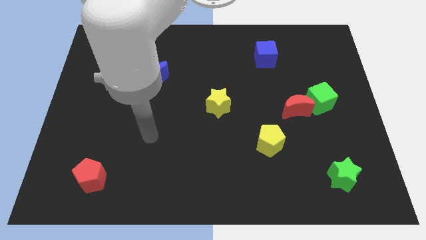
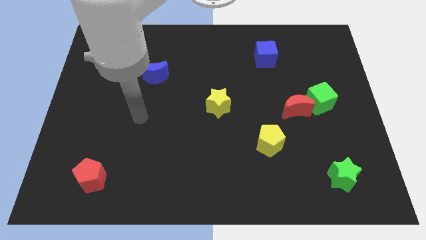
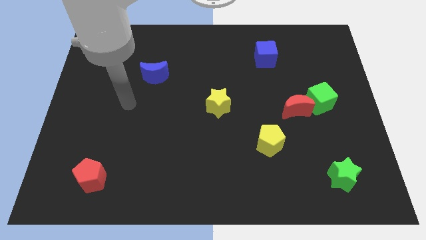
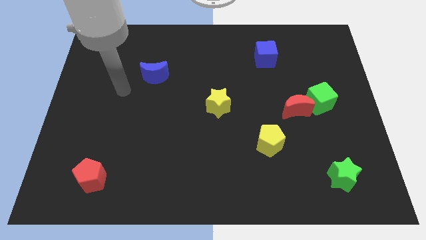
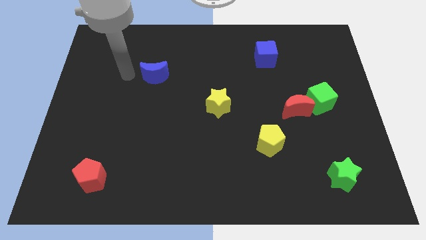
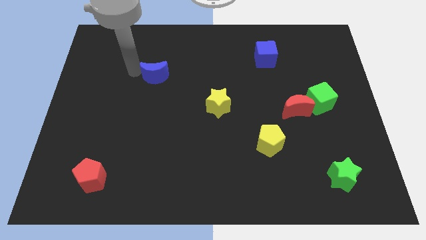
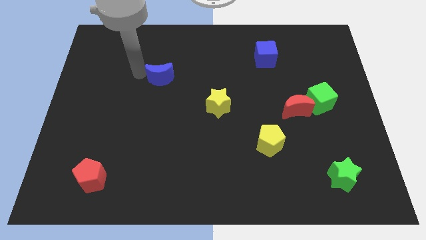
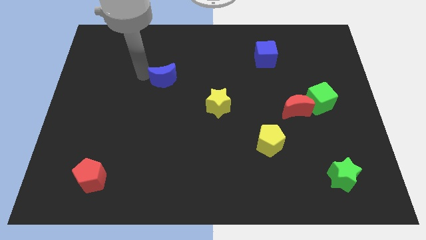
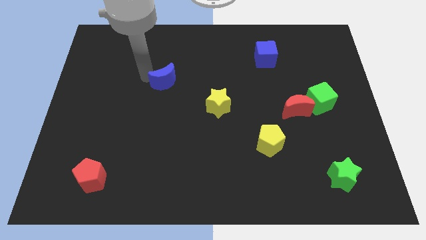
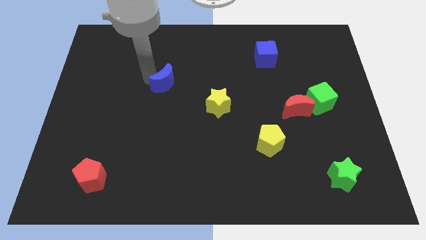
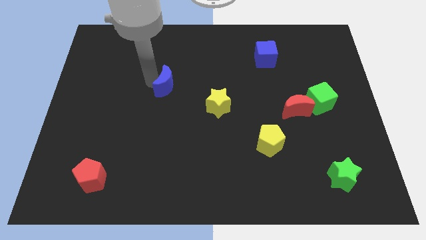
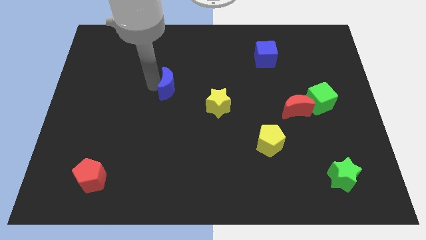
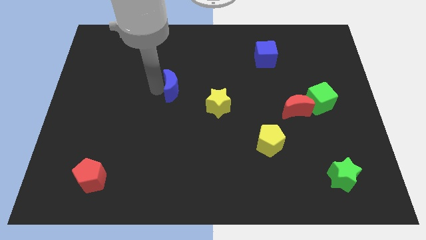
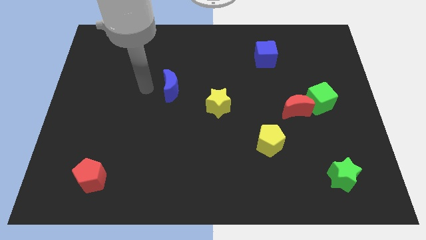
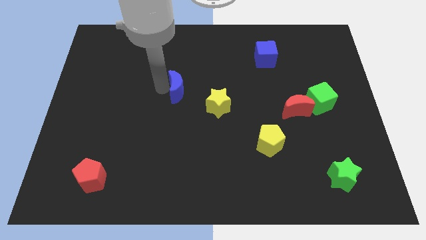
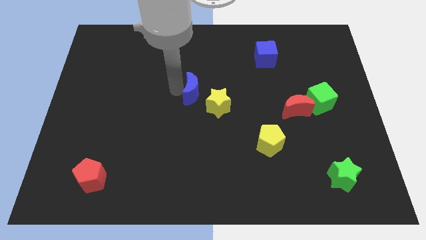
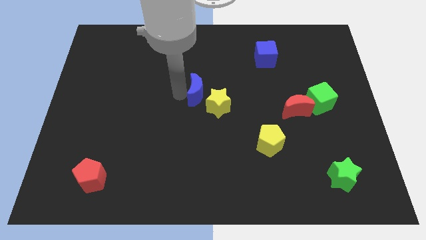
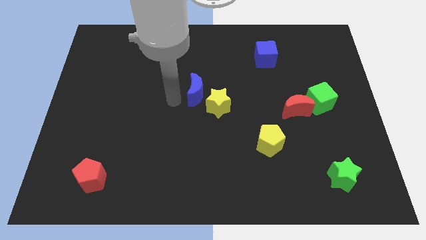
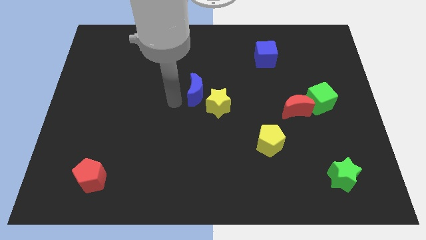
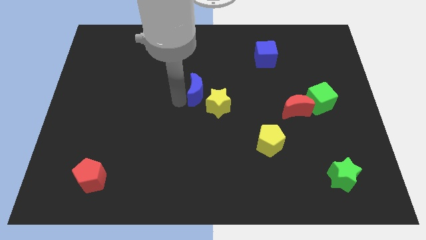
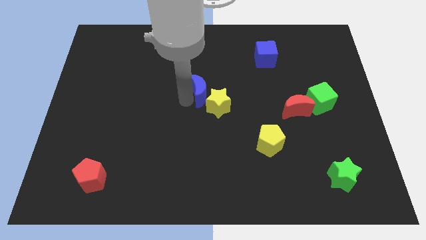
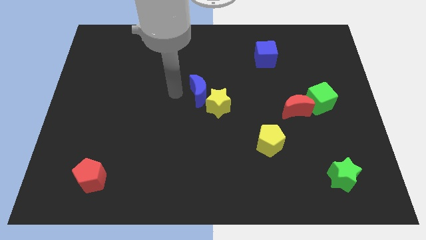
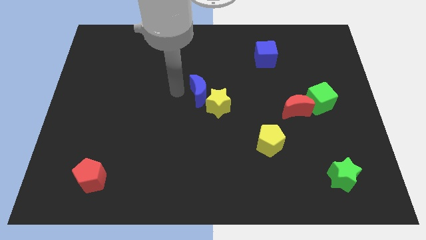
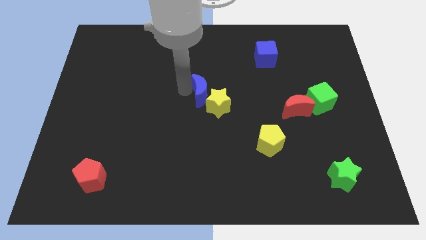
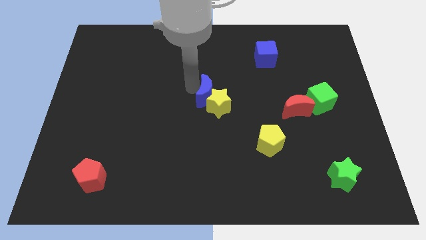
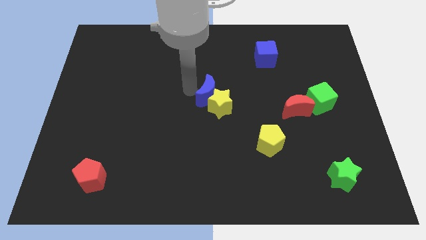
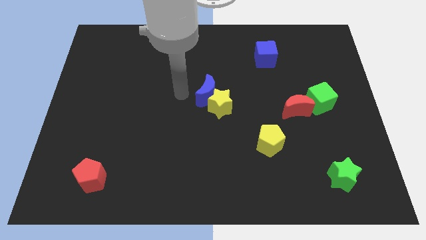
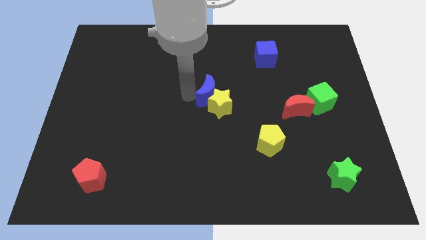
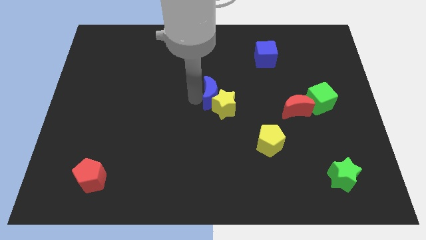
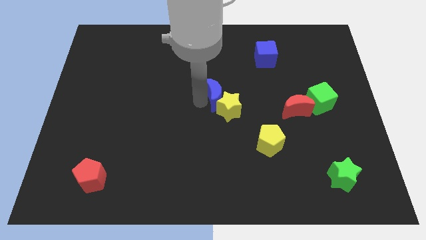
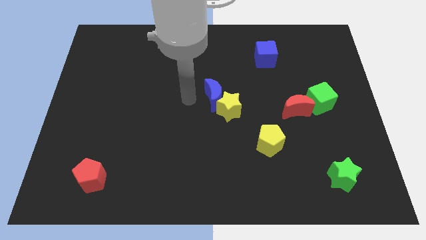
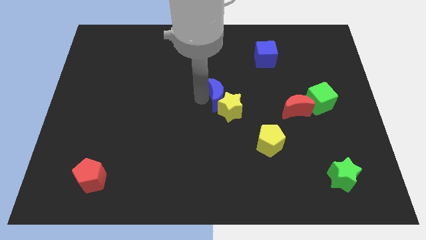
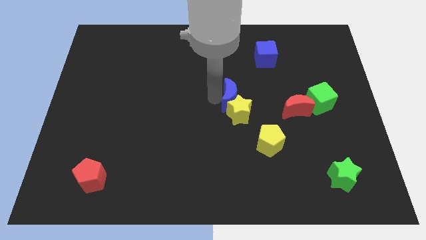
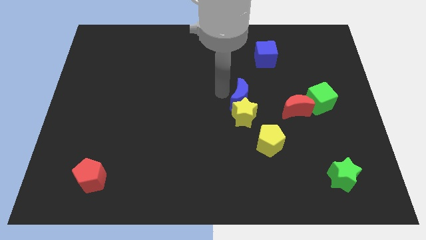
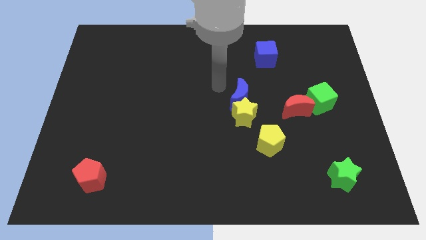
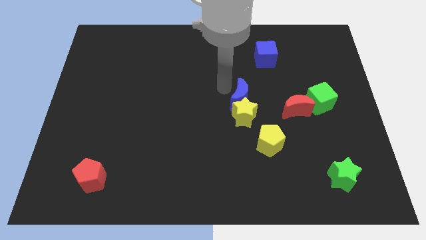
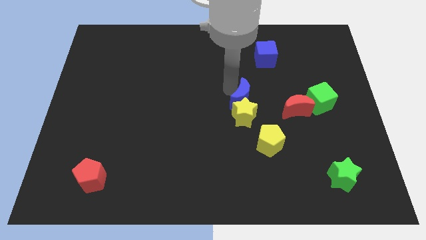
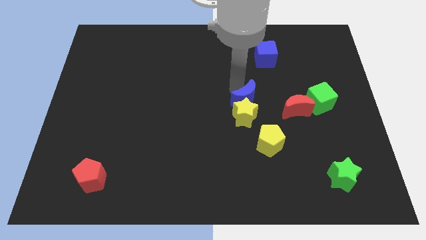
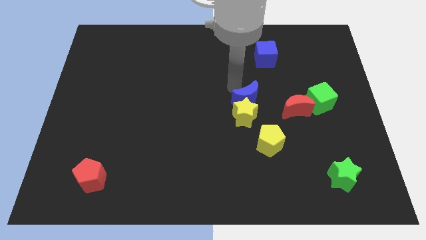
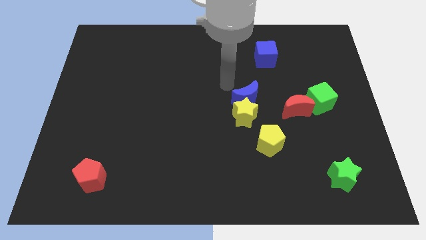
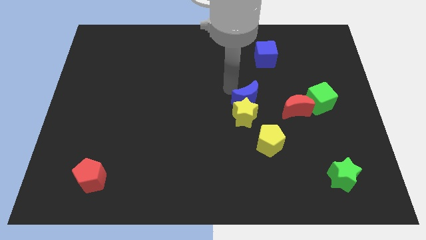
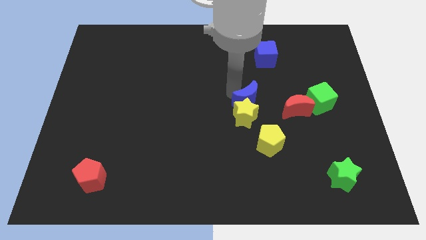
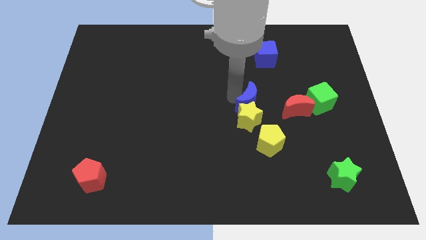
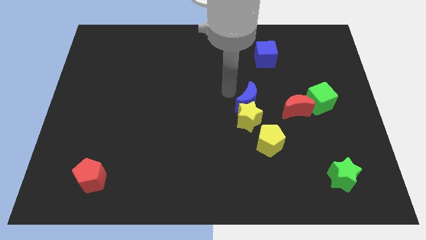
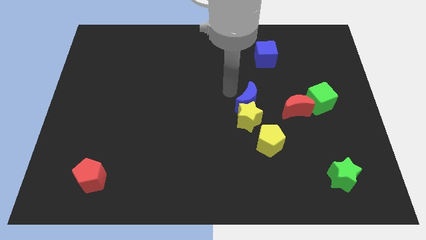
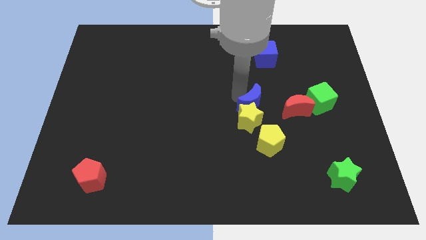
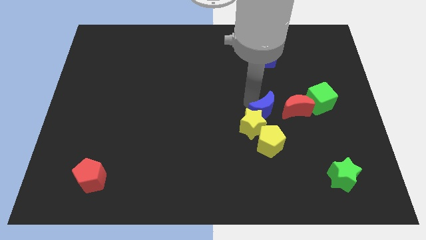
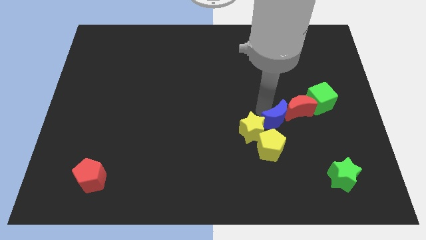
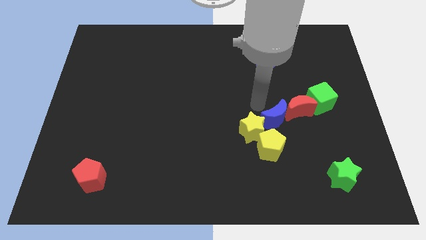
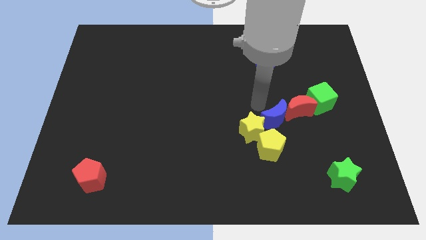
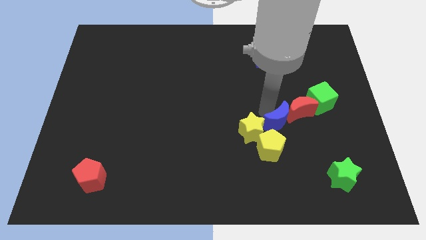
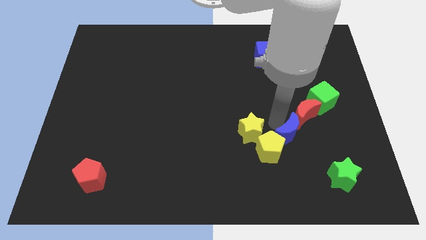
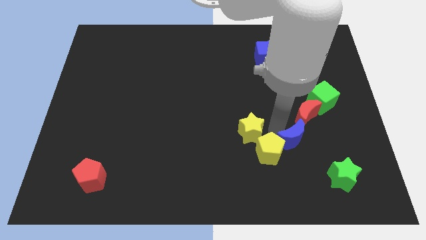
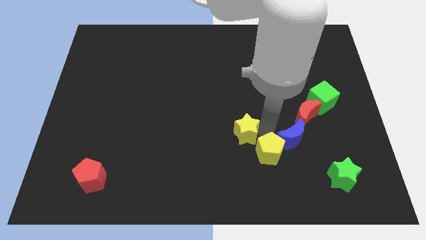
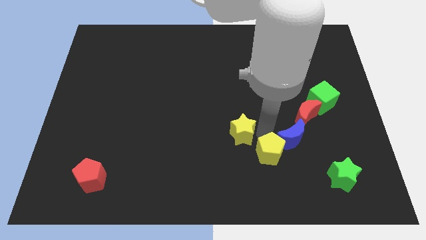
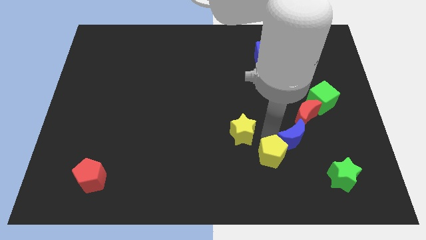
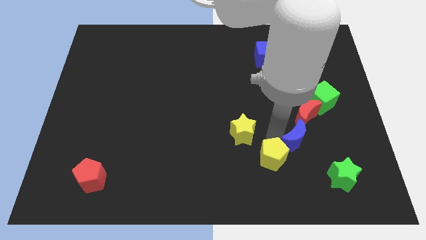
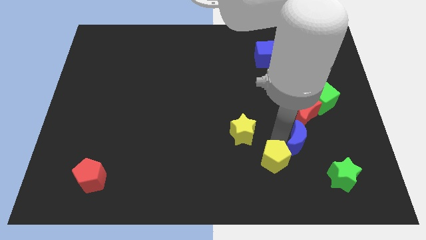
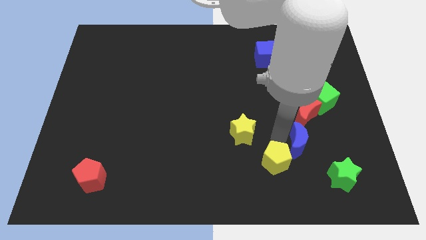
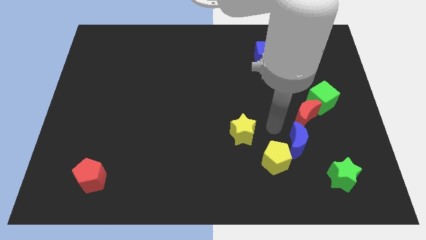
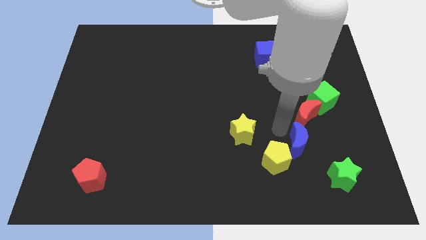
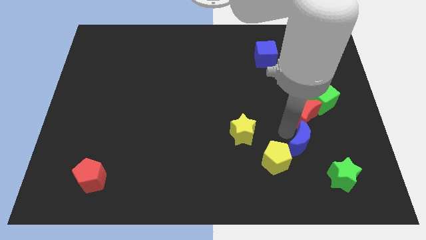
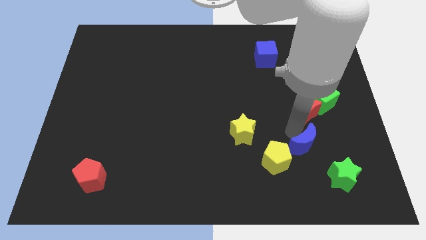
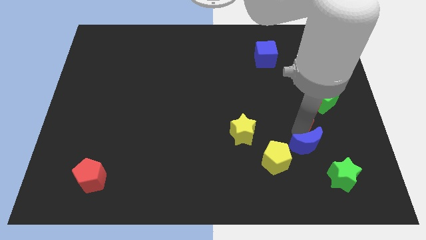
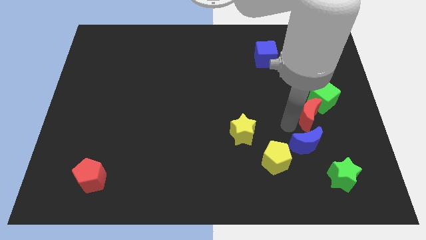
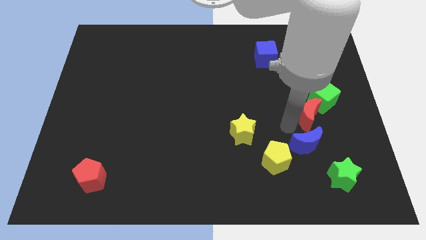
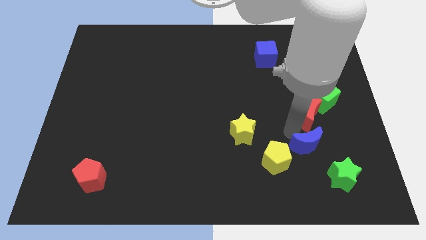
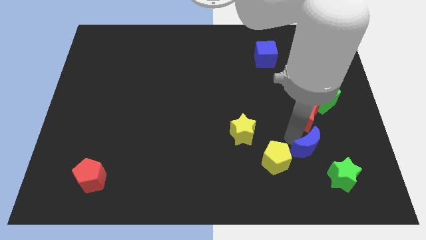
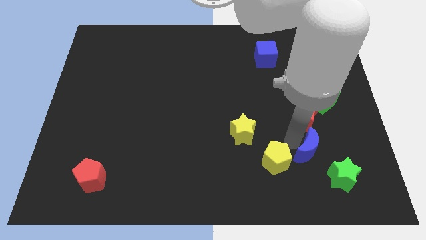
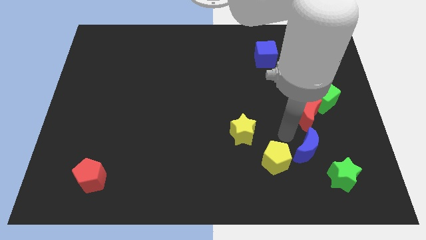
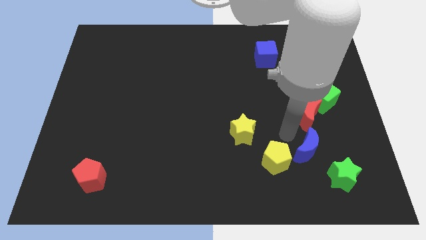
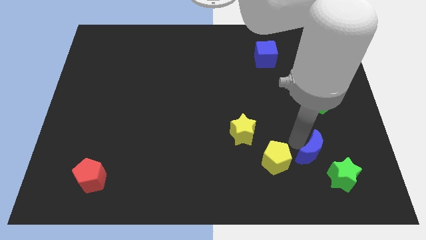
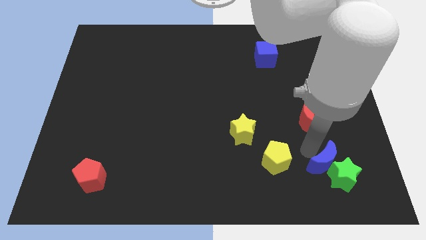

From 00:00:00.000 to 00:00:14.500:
slide the blue moon next to the green star

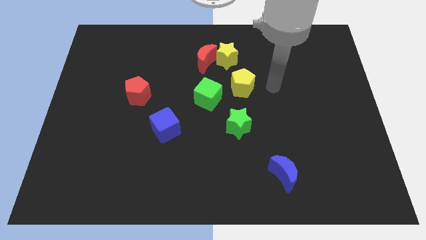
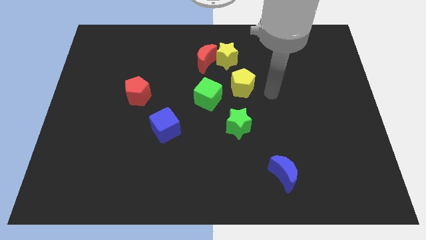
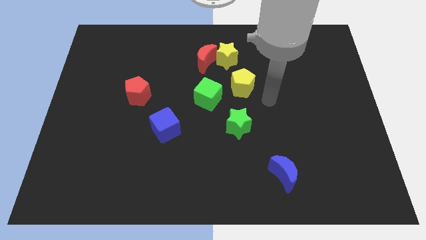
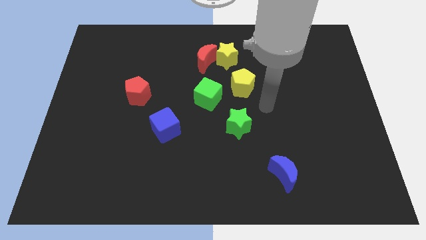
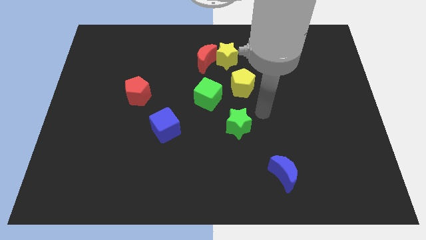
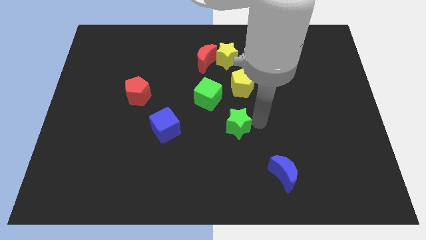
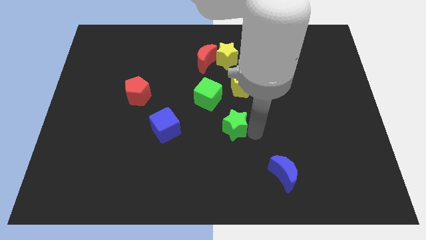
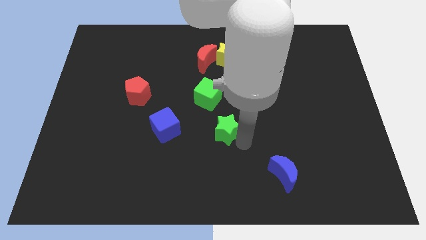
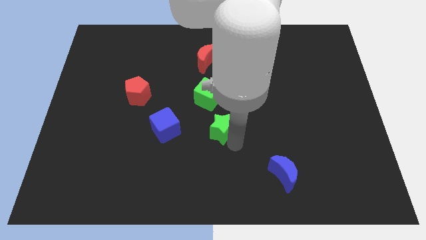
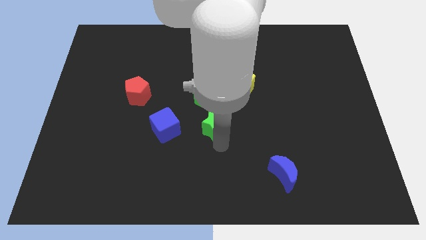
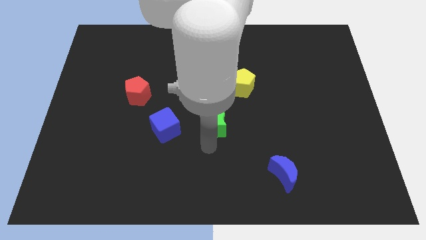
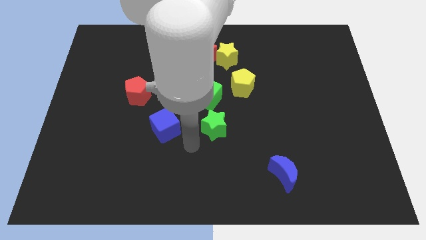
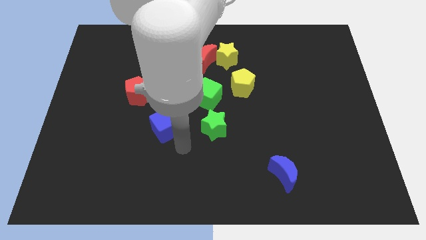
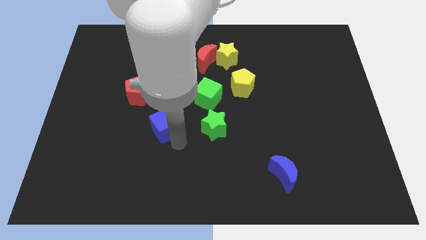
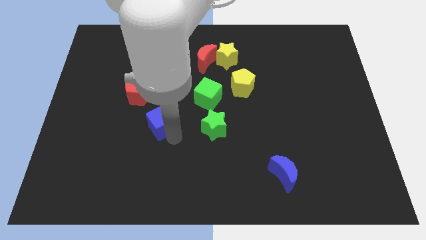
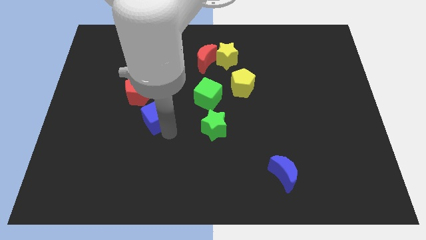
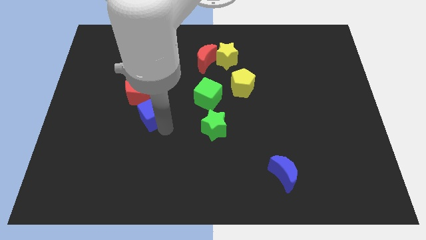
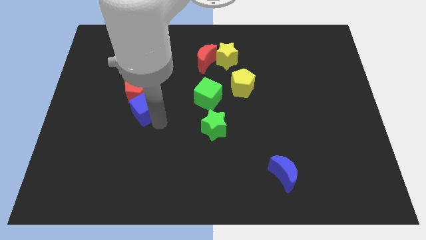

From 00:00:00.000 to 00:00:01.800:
slide the blue cube next to the red pentagon
